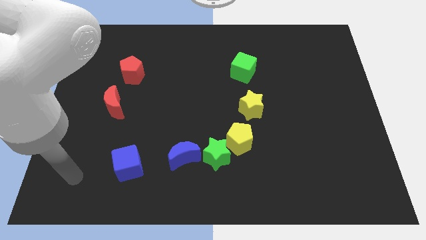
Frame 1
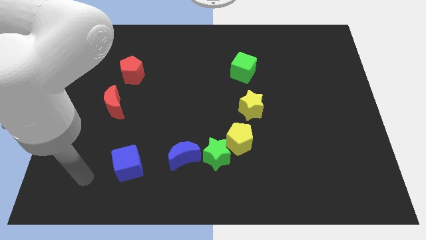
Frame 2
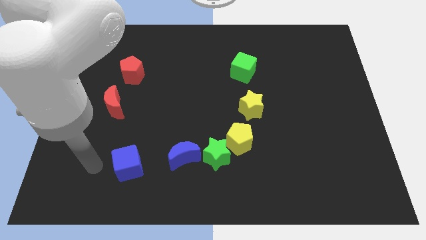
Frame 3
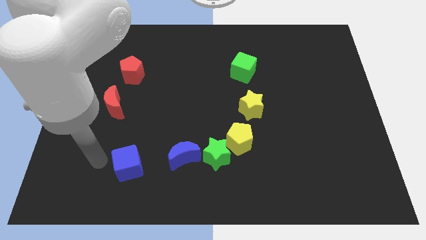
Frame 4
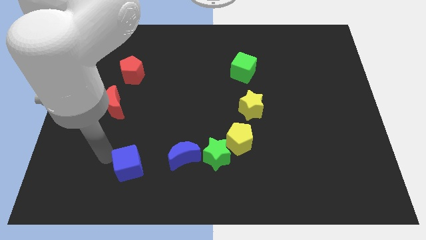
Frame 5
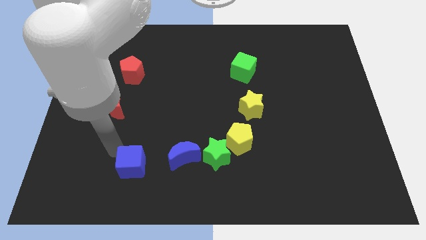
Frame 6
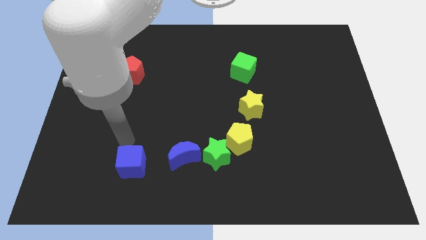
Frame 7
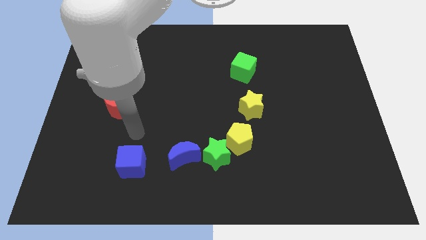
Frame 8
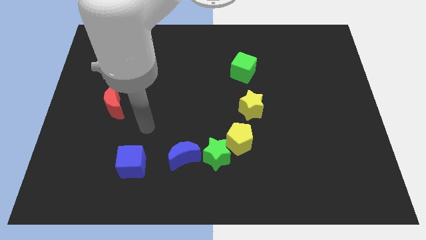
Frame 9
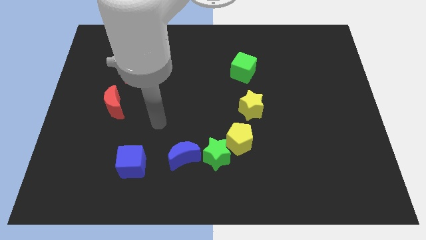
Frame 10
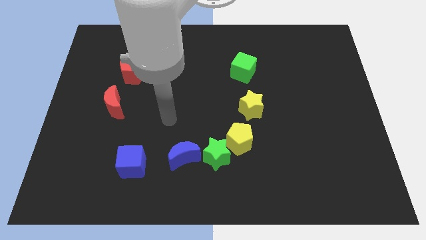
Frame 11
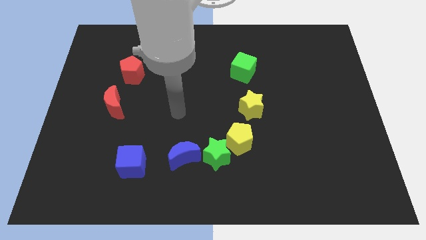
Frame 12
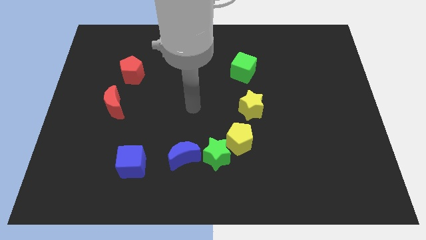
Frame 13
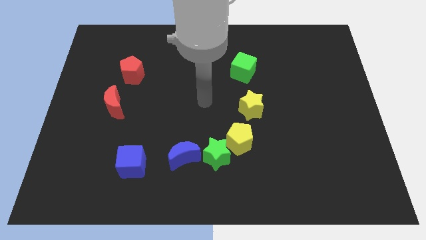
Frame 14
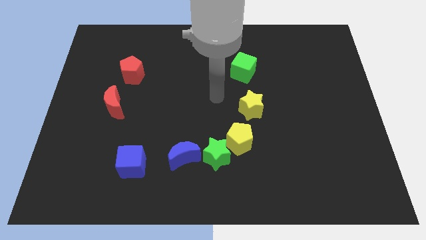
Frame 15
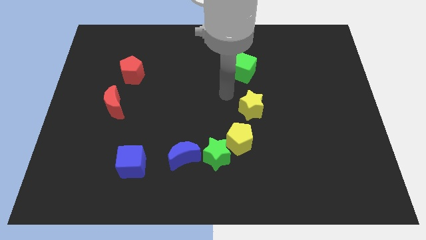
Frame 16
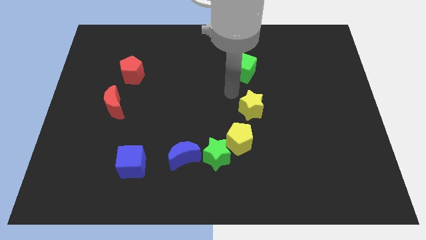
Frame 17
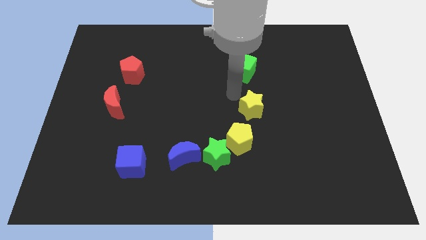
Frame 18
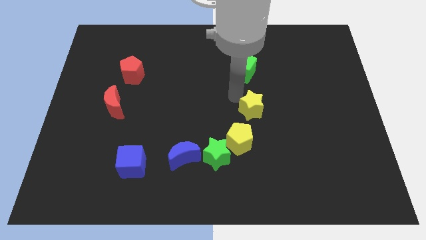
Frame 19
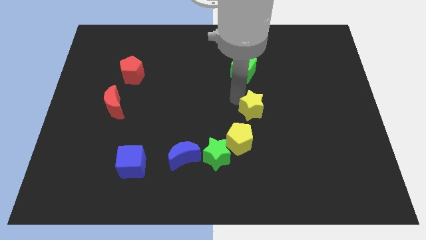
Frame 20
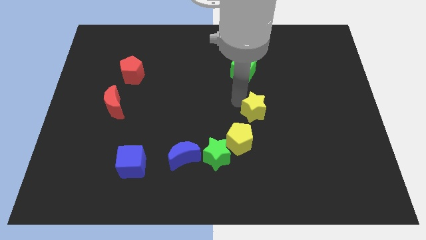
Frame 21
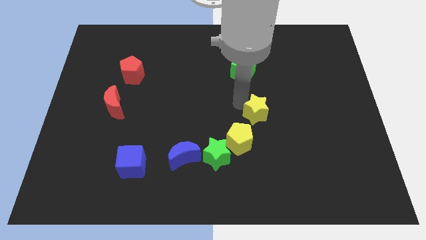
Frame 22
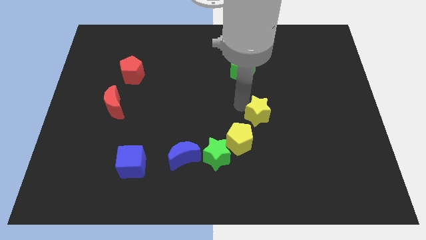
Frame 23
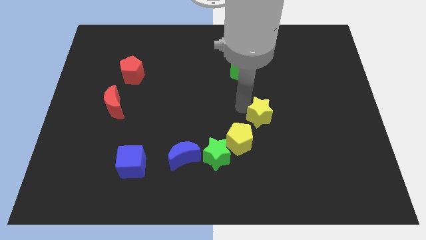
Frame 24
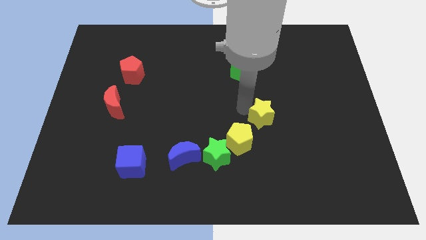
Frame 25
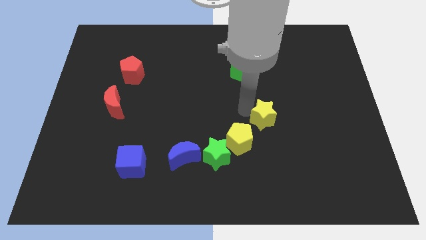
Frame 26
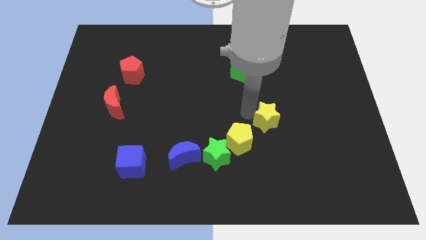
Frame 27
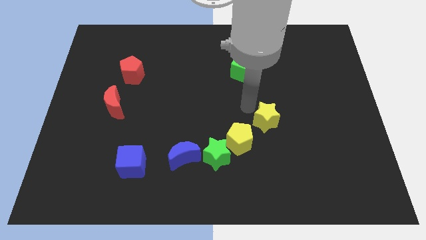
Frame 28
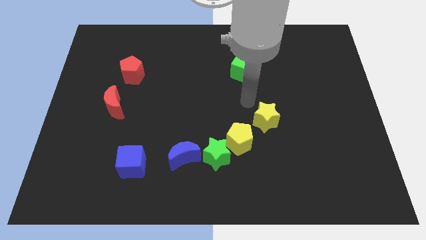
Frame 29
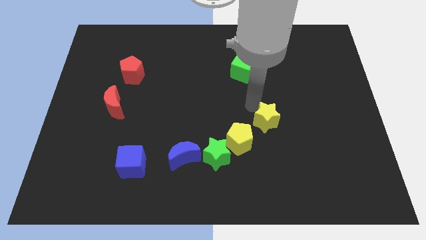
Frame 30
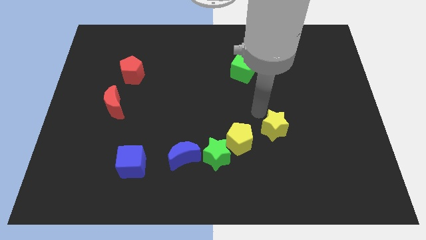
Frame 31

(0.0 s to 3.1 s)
slightly slide the yellow star downwards and then to the right

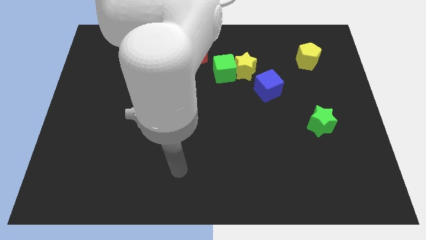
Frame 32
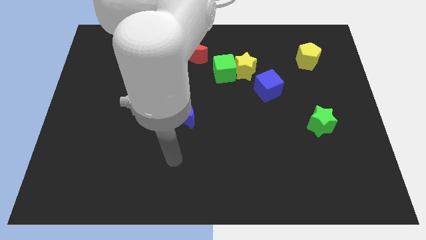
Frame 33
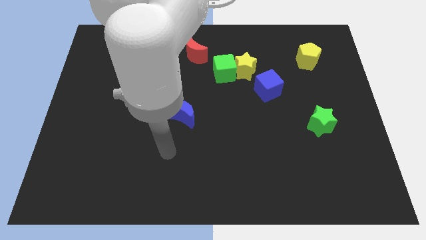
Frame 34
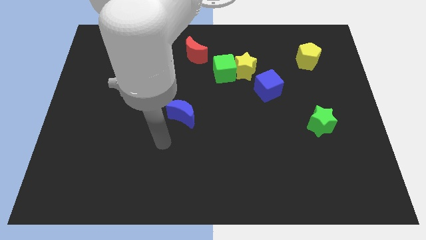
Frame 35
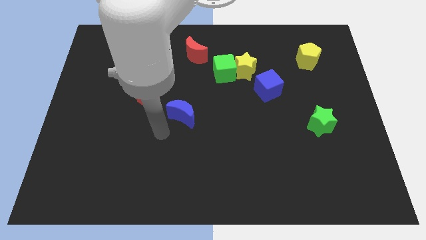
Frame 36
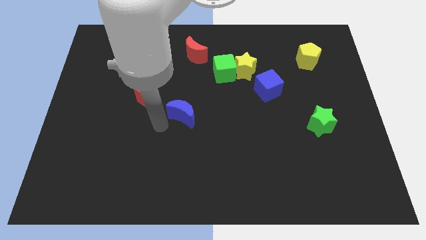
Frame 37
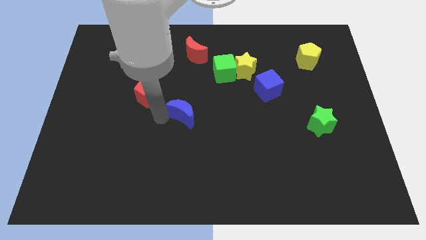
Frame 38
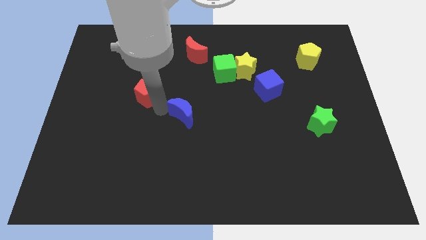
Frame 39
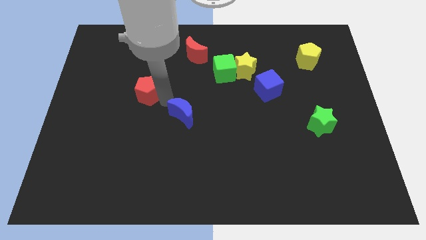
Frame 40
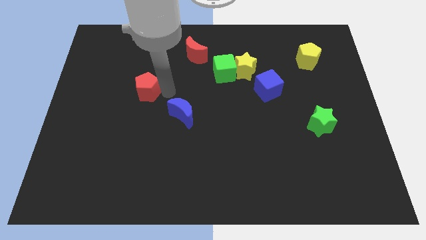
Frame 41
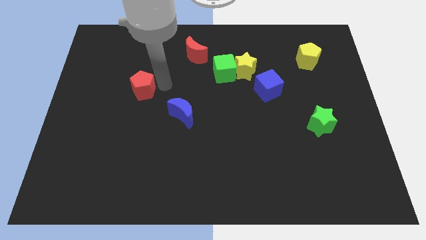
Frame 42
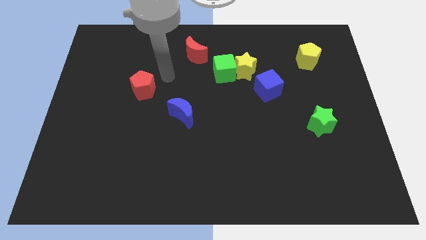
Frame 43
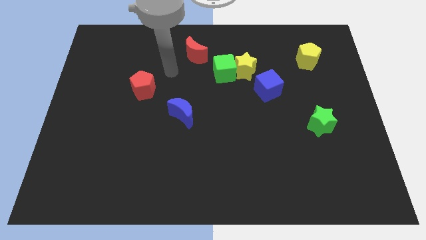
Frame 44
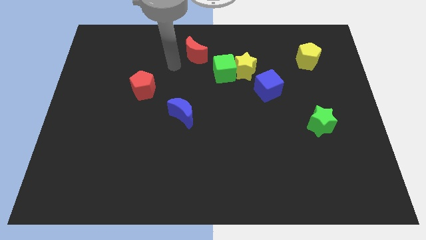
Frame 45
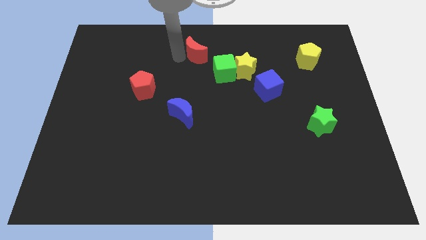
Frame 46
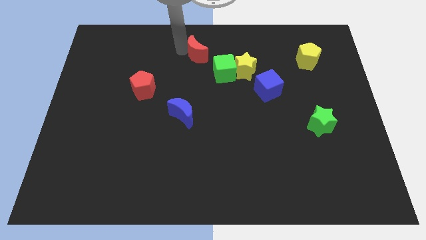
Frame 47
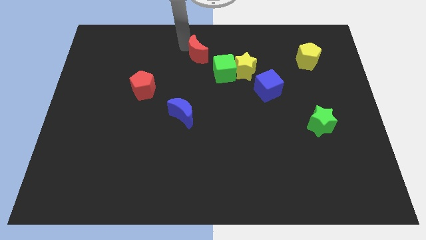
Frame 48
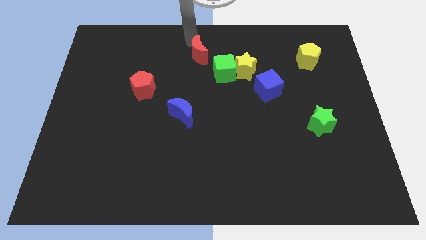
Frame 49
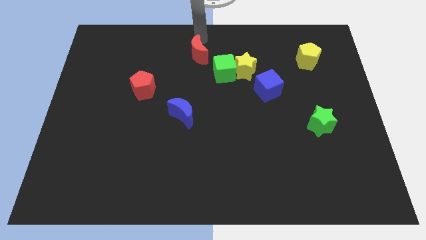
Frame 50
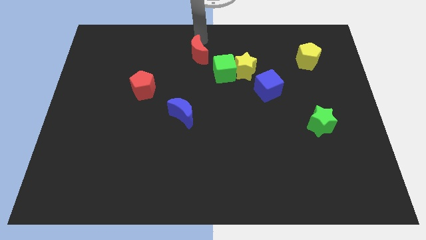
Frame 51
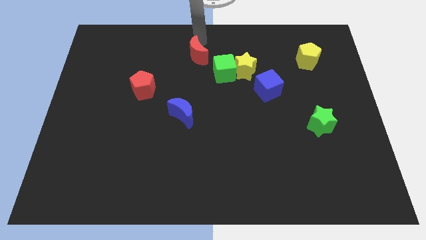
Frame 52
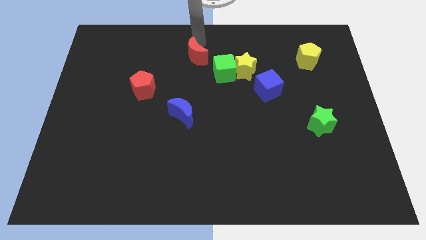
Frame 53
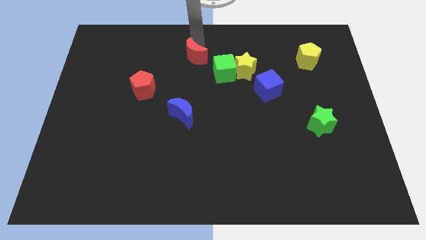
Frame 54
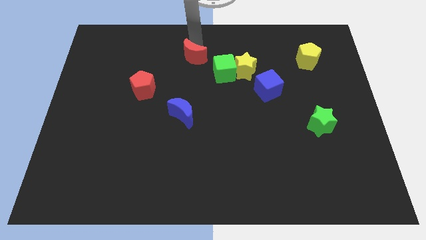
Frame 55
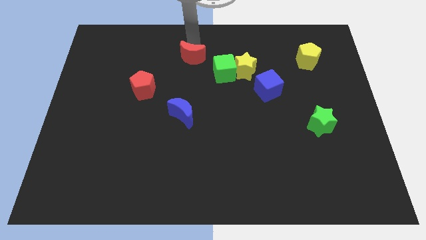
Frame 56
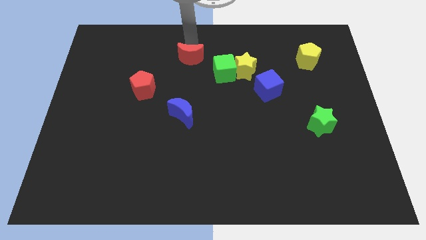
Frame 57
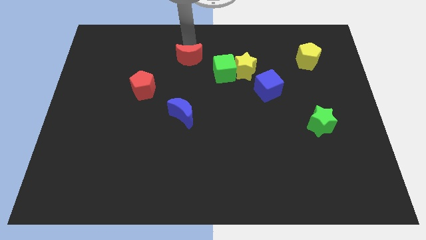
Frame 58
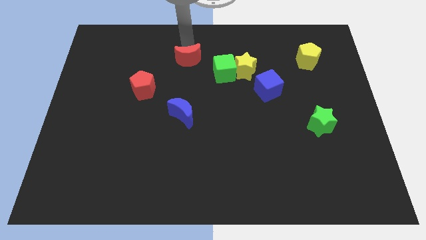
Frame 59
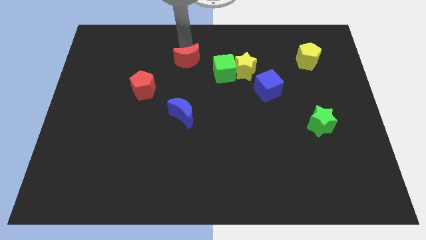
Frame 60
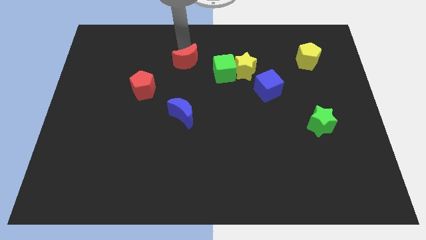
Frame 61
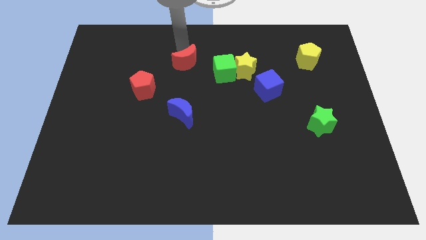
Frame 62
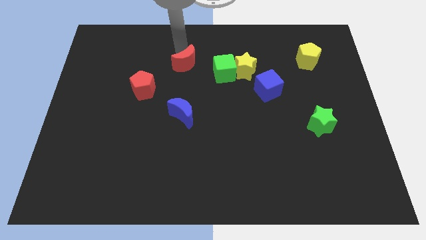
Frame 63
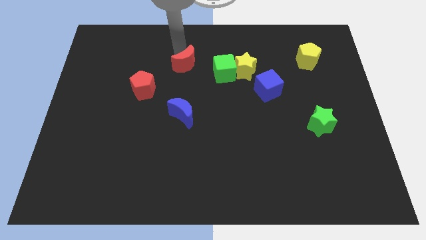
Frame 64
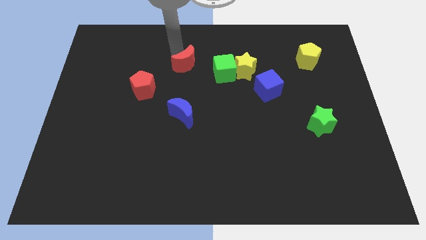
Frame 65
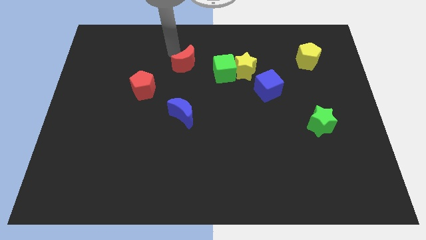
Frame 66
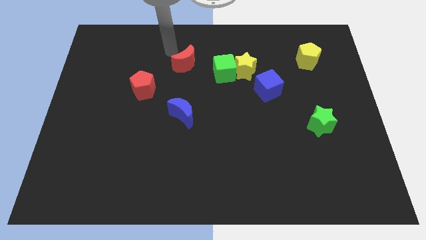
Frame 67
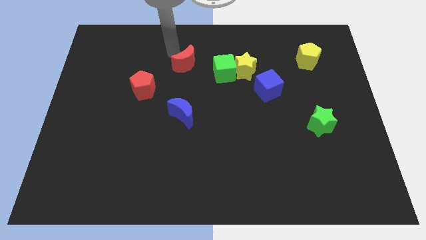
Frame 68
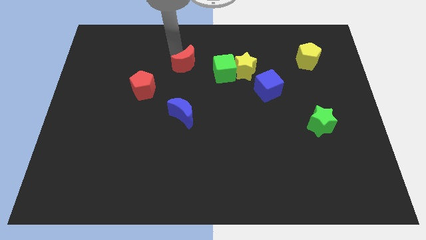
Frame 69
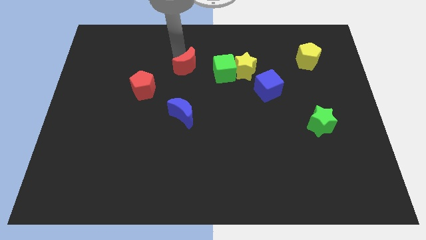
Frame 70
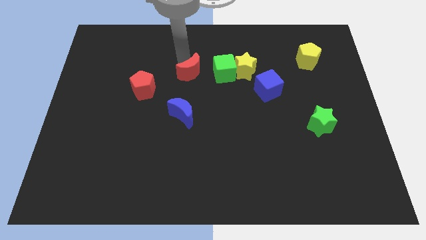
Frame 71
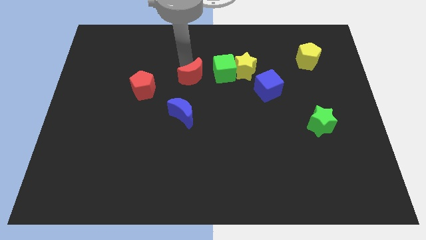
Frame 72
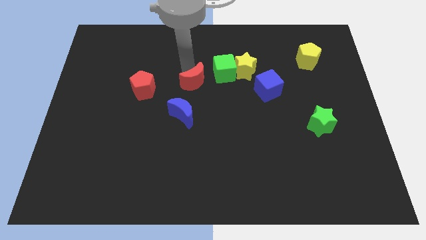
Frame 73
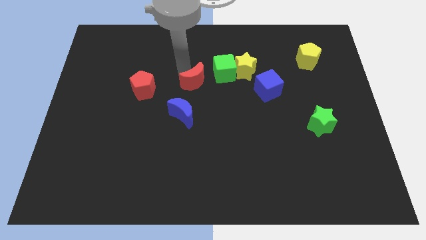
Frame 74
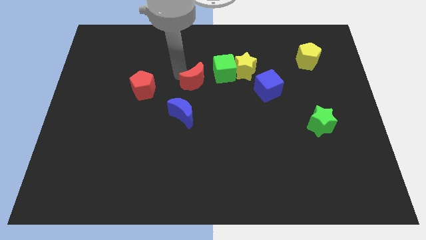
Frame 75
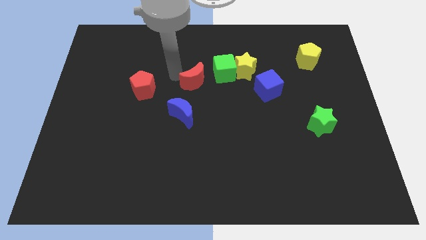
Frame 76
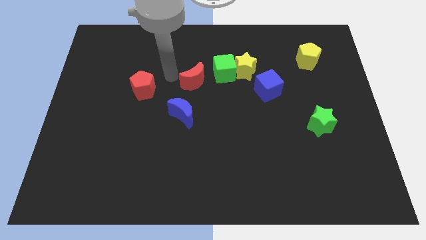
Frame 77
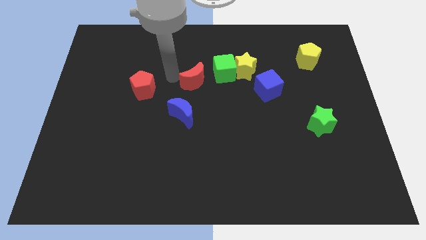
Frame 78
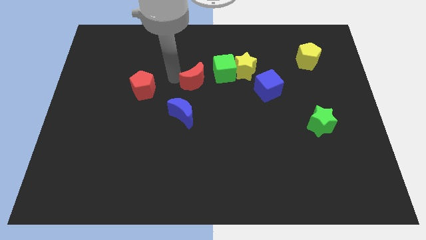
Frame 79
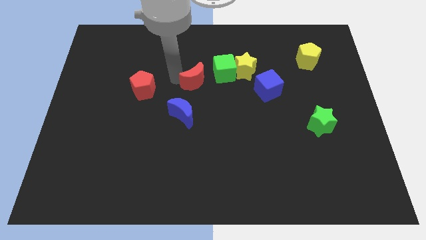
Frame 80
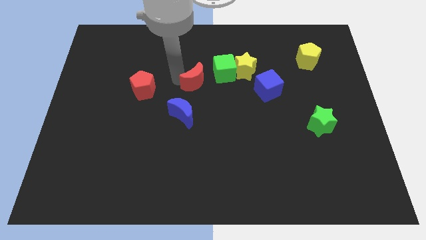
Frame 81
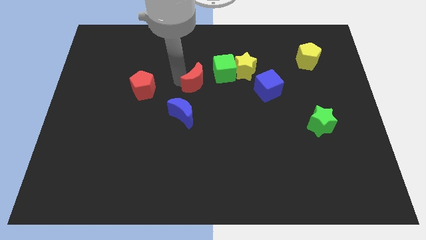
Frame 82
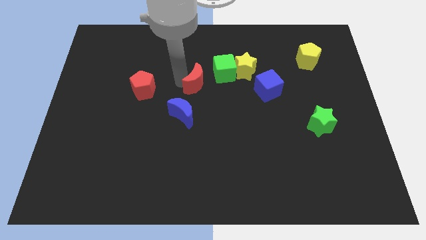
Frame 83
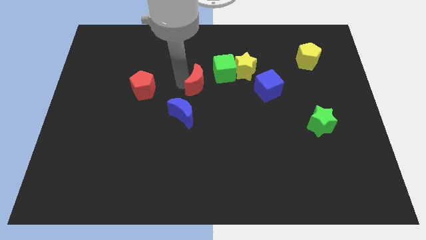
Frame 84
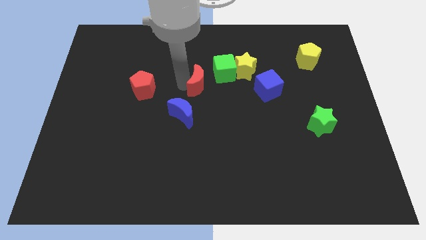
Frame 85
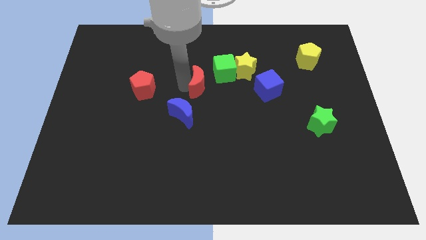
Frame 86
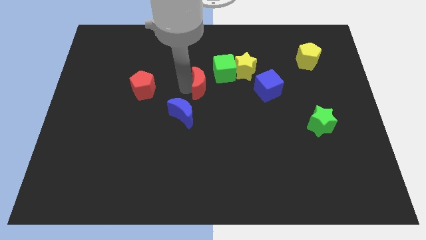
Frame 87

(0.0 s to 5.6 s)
slide the red moon a little downwards and then to the right
